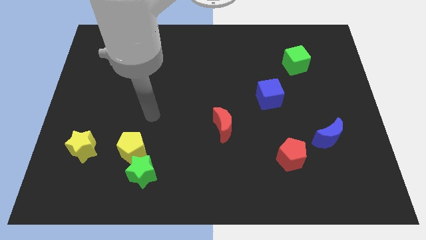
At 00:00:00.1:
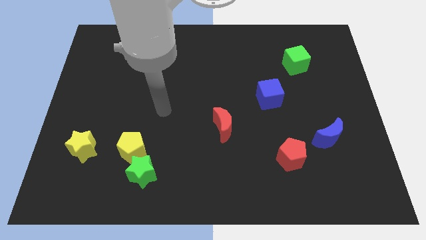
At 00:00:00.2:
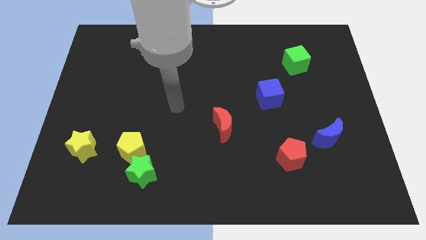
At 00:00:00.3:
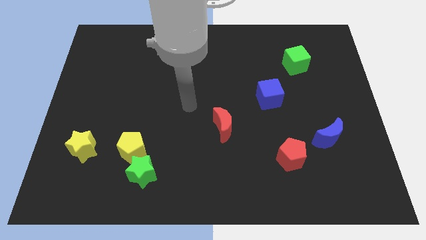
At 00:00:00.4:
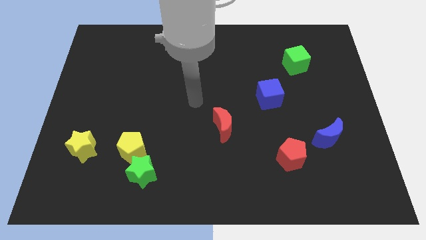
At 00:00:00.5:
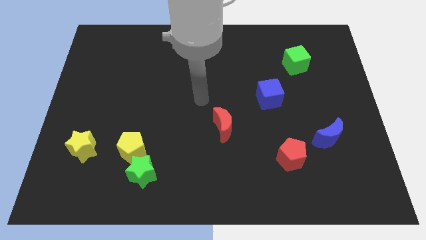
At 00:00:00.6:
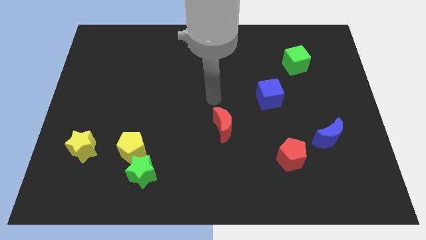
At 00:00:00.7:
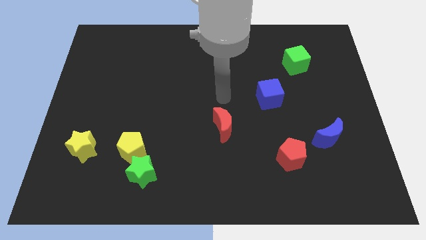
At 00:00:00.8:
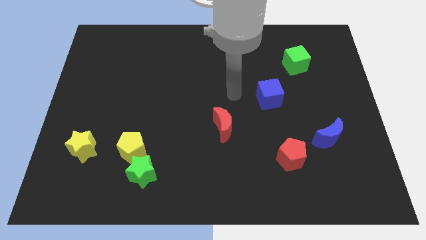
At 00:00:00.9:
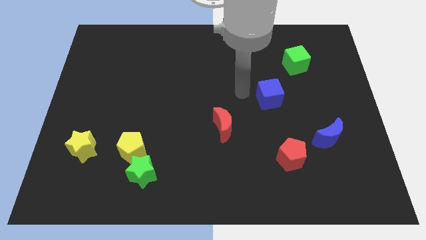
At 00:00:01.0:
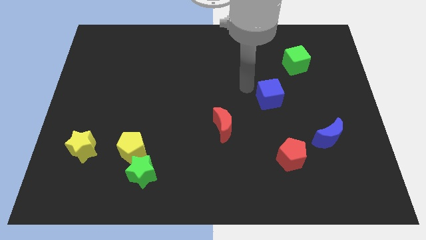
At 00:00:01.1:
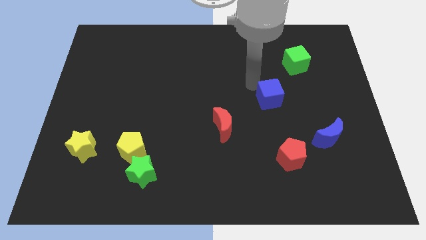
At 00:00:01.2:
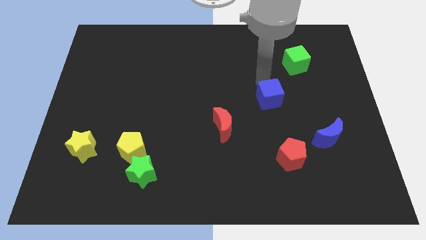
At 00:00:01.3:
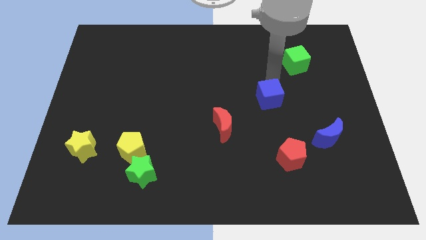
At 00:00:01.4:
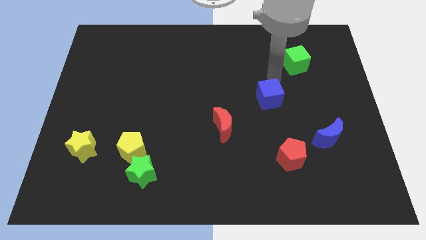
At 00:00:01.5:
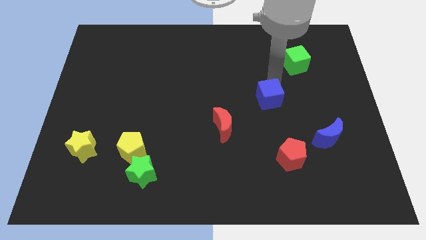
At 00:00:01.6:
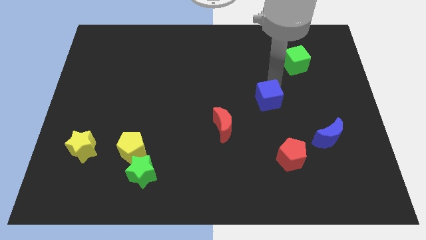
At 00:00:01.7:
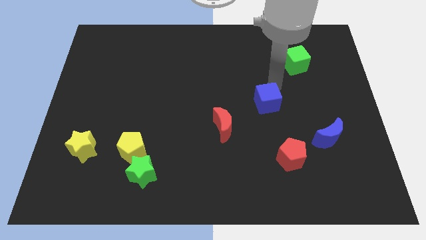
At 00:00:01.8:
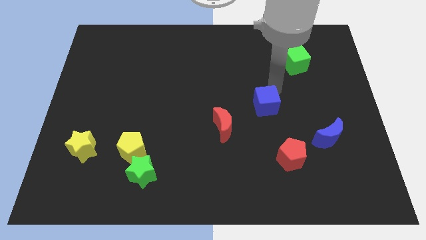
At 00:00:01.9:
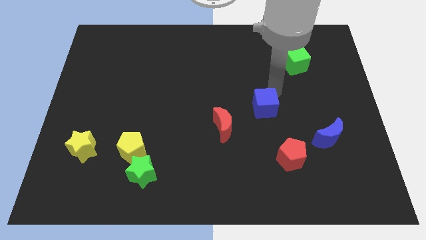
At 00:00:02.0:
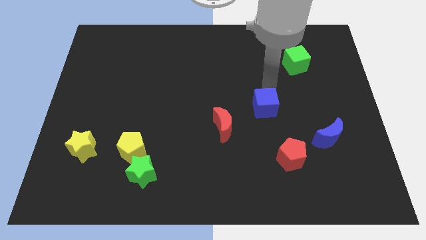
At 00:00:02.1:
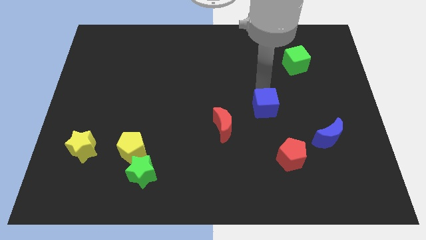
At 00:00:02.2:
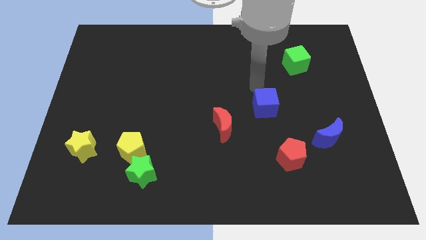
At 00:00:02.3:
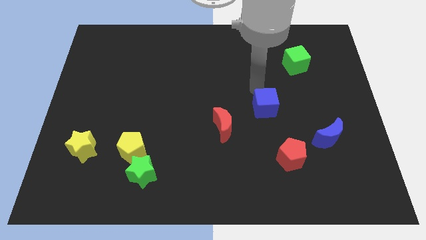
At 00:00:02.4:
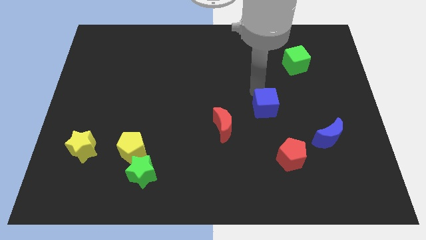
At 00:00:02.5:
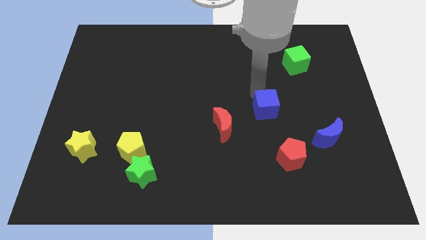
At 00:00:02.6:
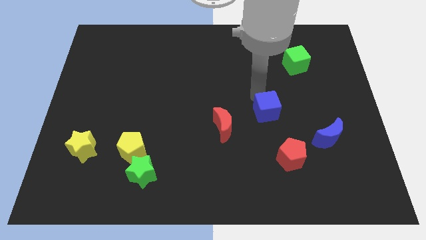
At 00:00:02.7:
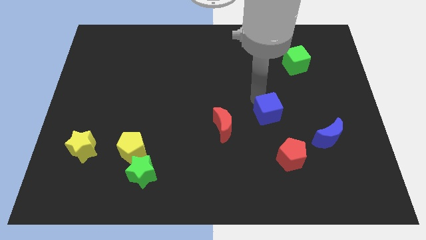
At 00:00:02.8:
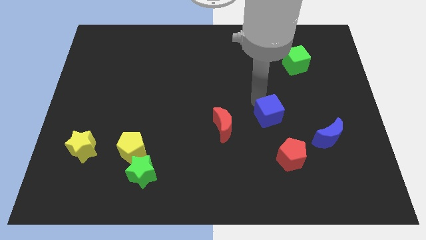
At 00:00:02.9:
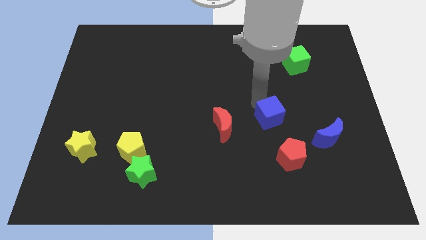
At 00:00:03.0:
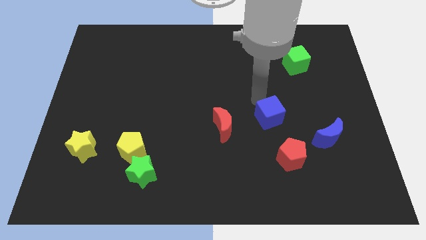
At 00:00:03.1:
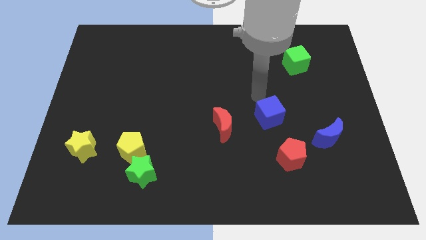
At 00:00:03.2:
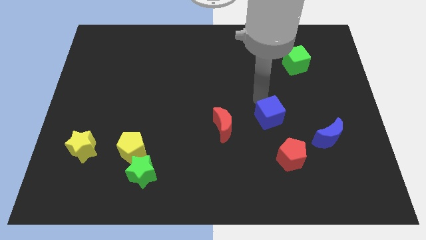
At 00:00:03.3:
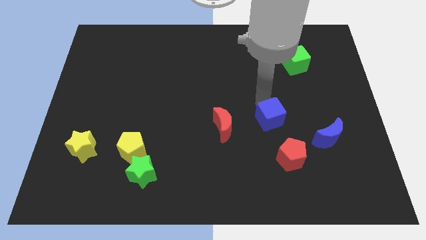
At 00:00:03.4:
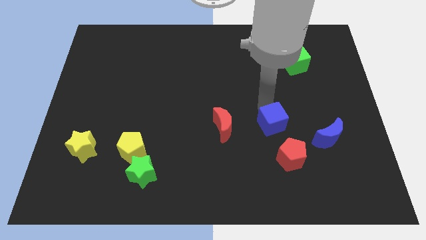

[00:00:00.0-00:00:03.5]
slightly push the blue cube down

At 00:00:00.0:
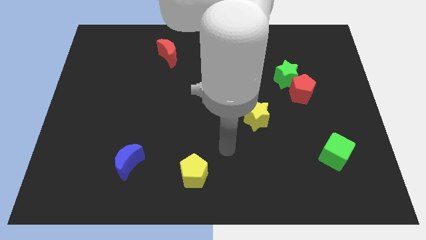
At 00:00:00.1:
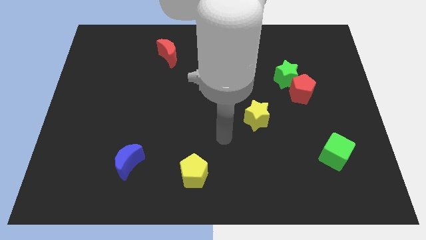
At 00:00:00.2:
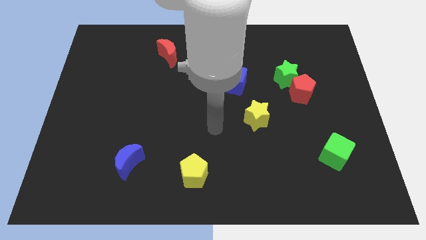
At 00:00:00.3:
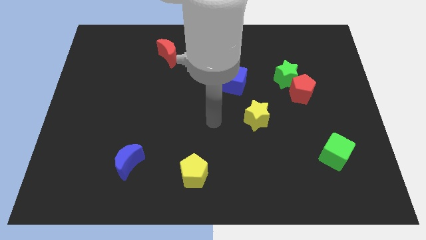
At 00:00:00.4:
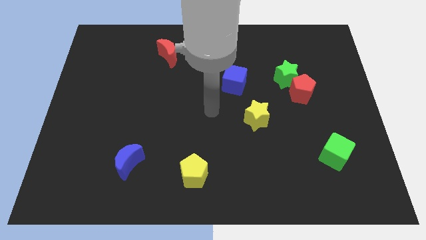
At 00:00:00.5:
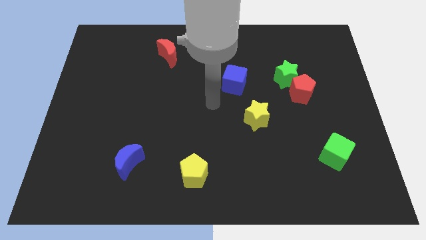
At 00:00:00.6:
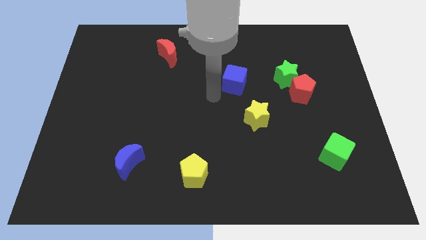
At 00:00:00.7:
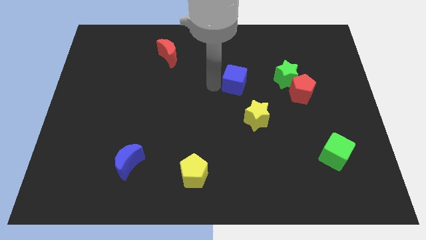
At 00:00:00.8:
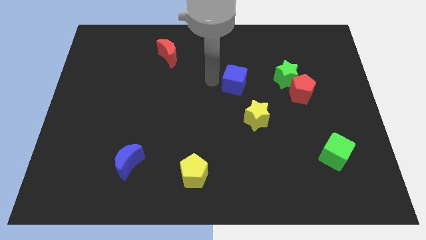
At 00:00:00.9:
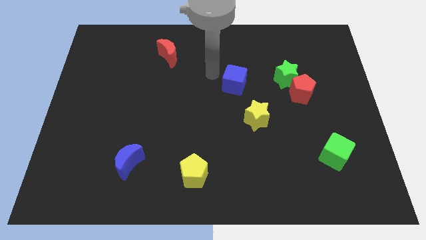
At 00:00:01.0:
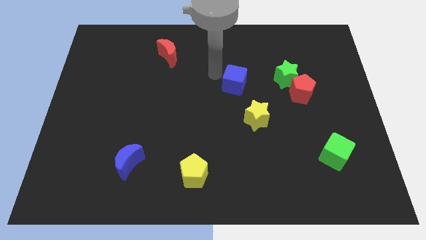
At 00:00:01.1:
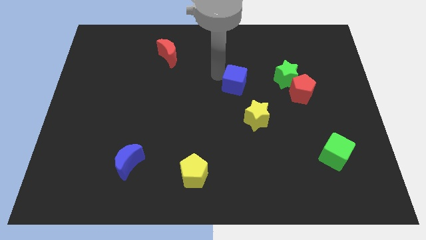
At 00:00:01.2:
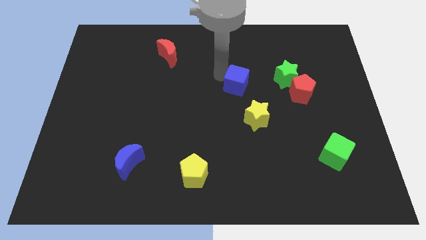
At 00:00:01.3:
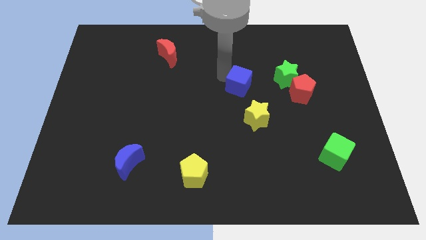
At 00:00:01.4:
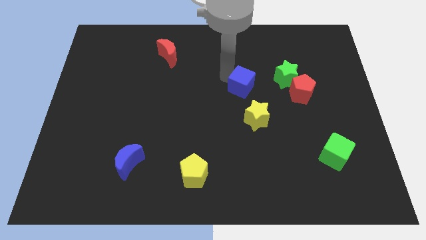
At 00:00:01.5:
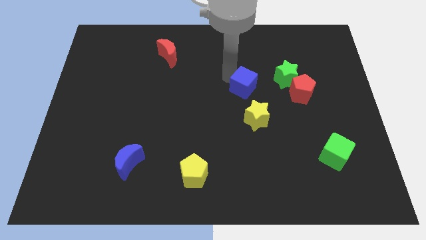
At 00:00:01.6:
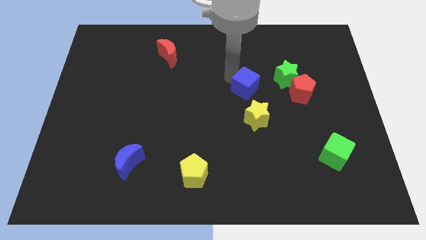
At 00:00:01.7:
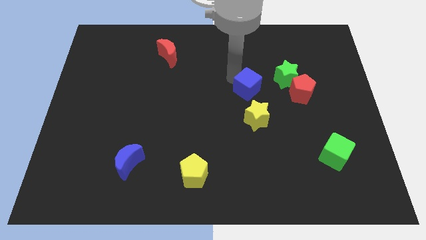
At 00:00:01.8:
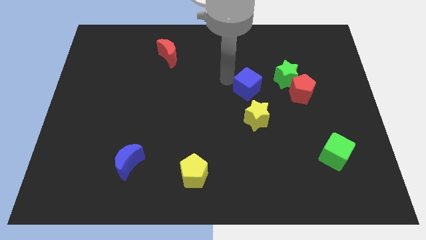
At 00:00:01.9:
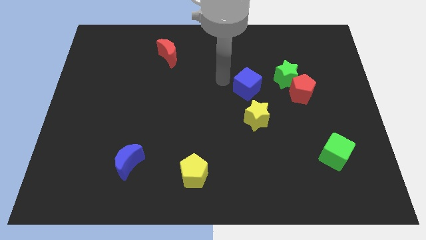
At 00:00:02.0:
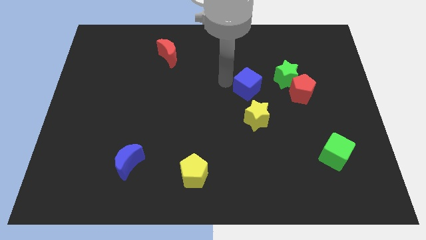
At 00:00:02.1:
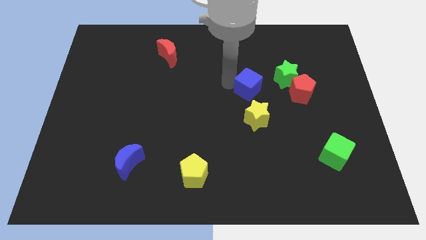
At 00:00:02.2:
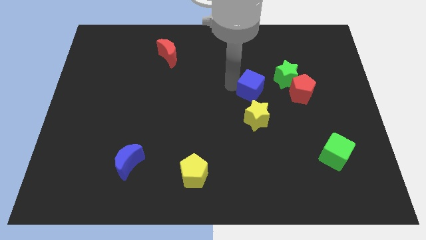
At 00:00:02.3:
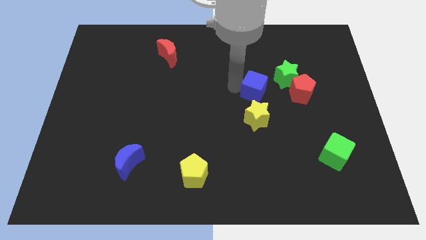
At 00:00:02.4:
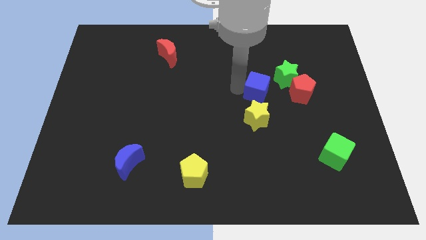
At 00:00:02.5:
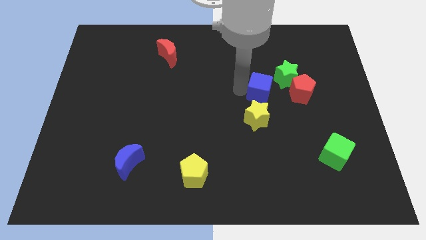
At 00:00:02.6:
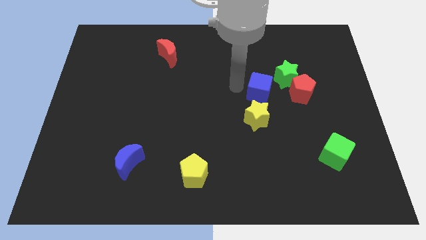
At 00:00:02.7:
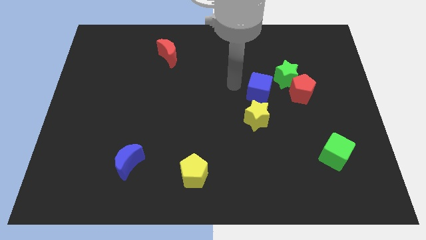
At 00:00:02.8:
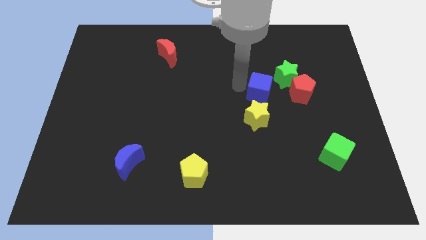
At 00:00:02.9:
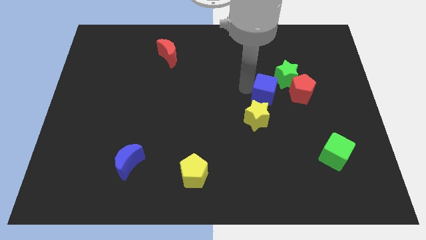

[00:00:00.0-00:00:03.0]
slide the blue cube right somewhat

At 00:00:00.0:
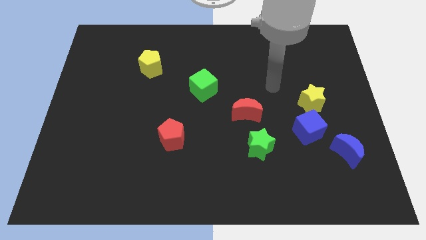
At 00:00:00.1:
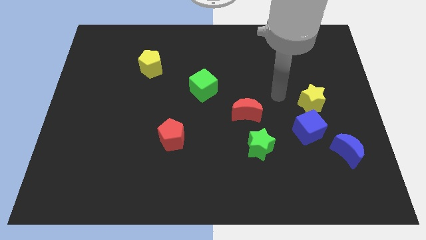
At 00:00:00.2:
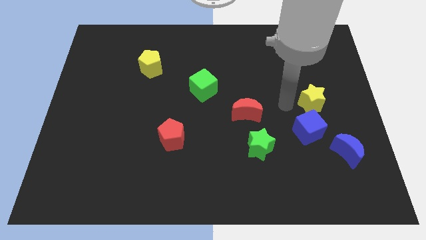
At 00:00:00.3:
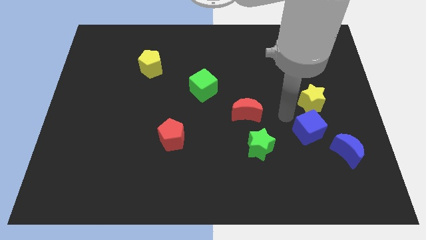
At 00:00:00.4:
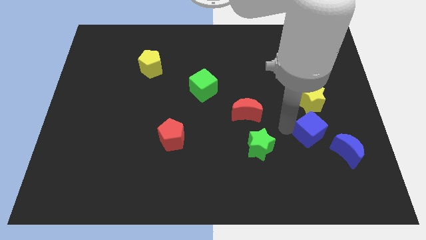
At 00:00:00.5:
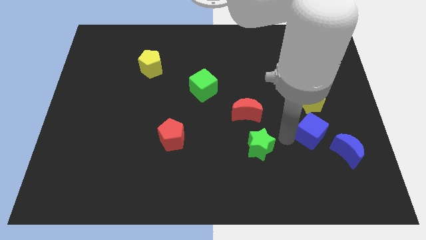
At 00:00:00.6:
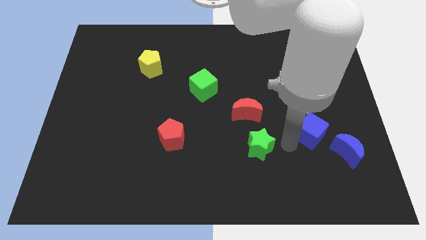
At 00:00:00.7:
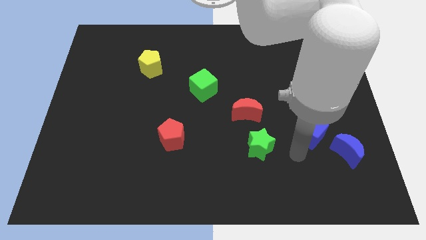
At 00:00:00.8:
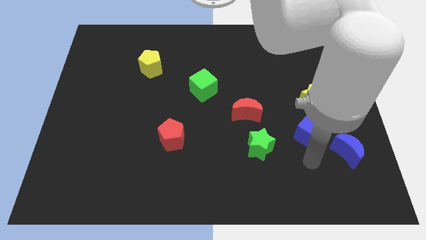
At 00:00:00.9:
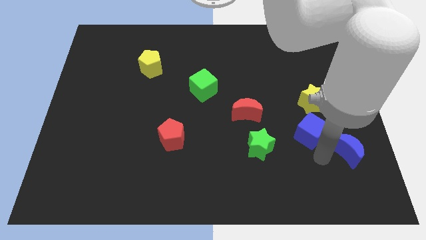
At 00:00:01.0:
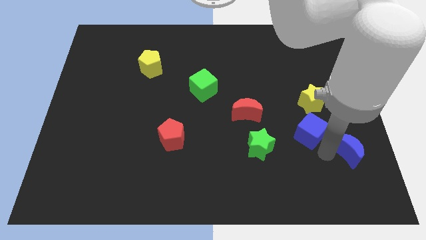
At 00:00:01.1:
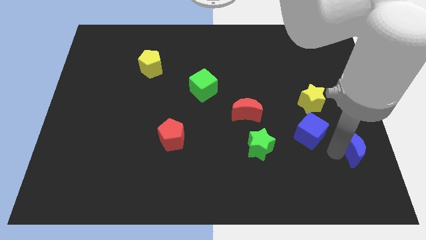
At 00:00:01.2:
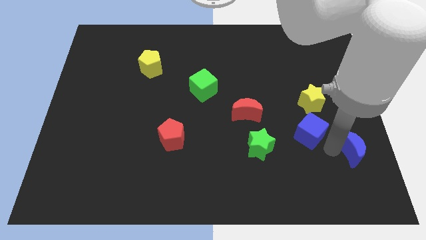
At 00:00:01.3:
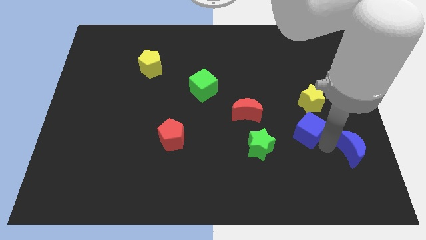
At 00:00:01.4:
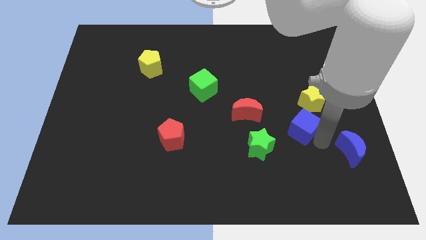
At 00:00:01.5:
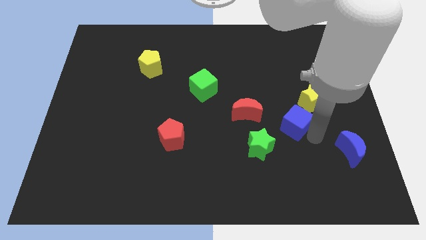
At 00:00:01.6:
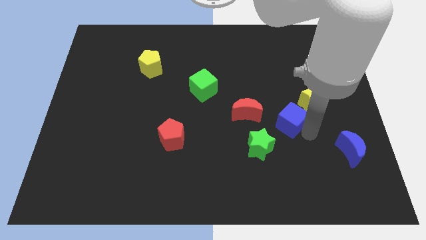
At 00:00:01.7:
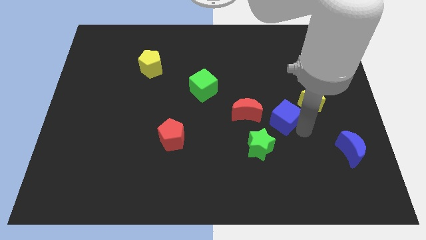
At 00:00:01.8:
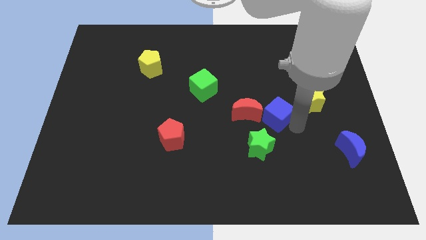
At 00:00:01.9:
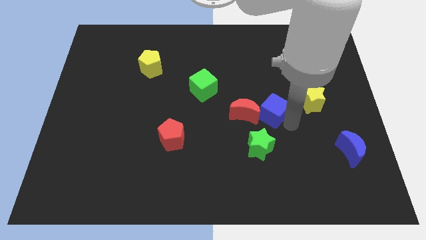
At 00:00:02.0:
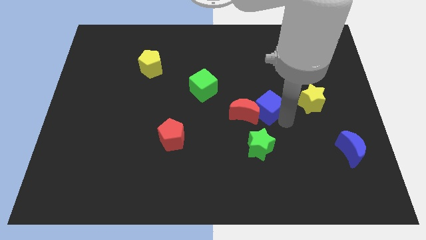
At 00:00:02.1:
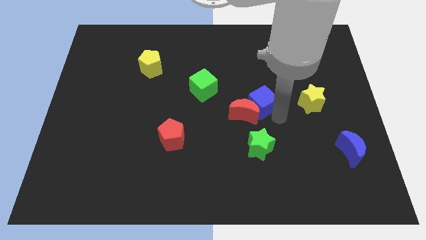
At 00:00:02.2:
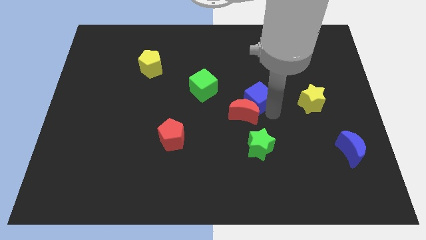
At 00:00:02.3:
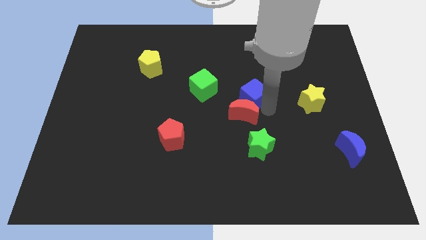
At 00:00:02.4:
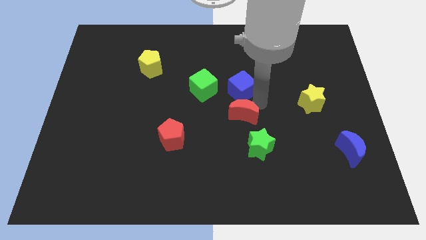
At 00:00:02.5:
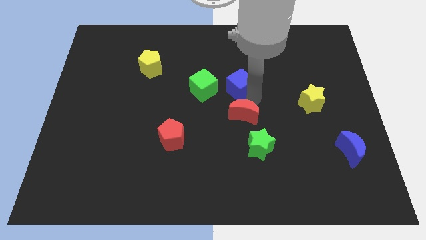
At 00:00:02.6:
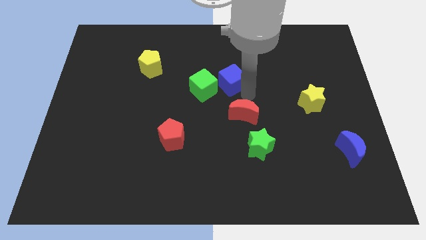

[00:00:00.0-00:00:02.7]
slide the blue cube upwards and then left
